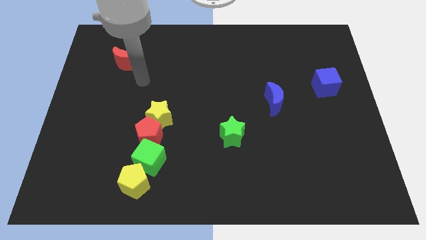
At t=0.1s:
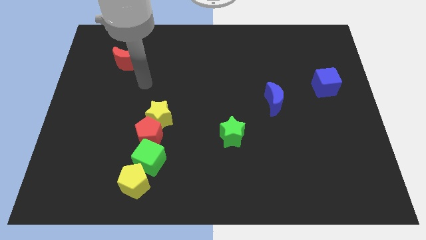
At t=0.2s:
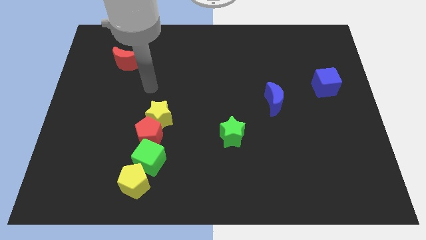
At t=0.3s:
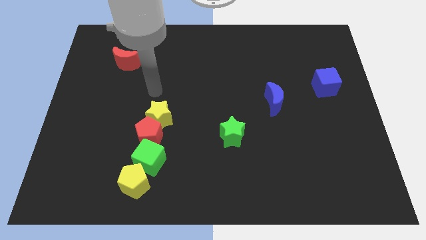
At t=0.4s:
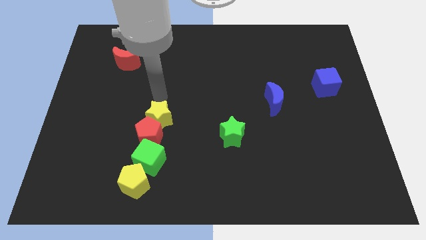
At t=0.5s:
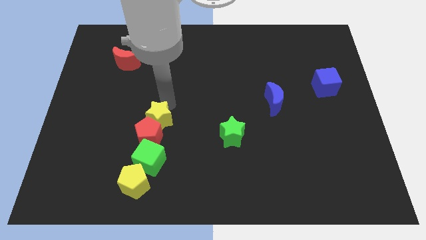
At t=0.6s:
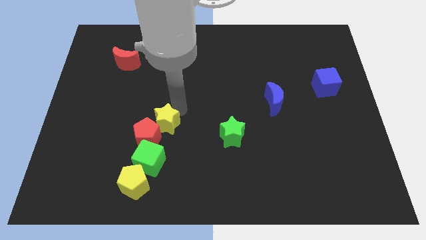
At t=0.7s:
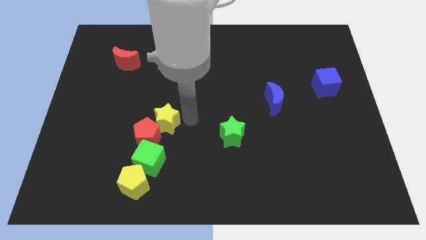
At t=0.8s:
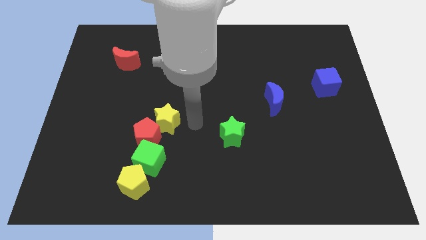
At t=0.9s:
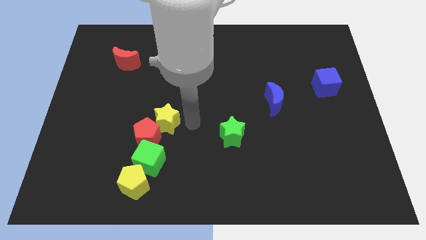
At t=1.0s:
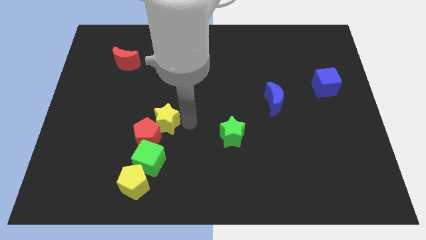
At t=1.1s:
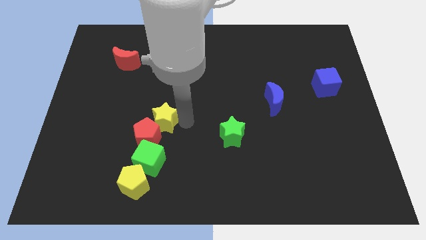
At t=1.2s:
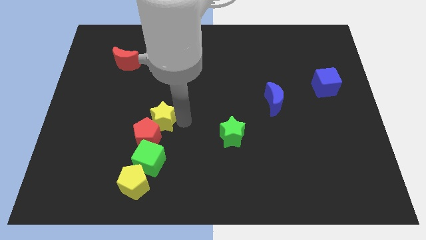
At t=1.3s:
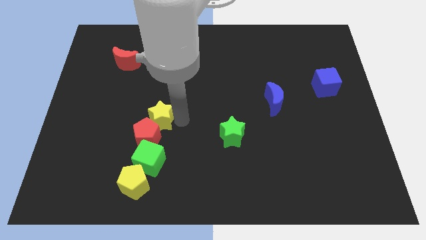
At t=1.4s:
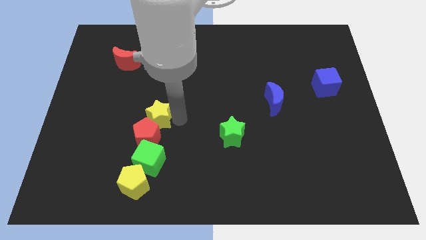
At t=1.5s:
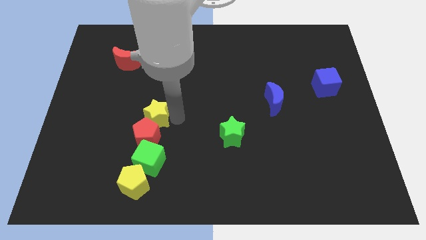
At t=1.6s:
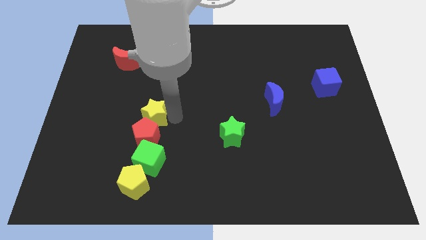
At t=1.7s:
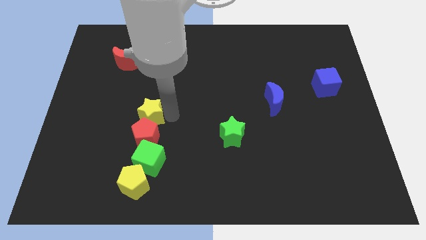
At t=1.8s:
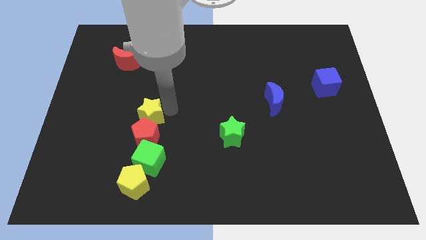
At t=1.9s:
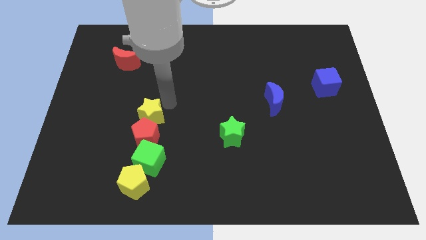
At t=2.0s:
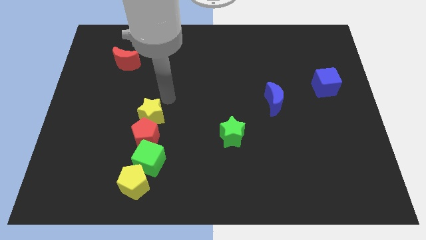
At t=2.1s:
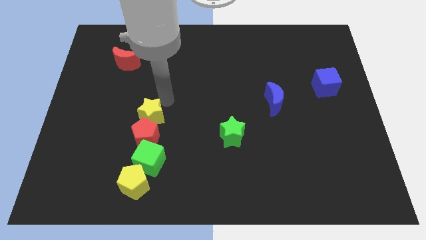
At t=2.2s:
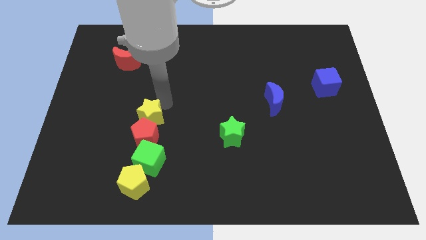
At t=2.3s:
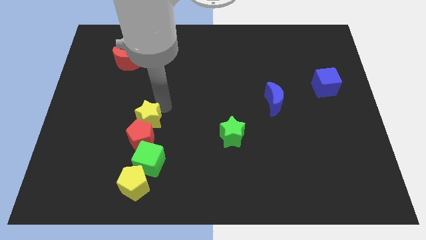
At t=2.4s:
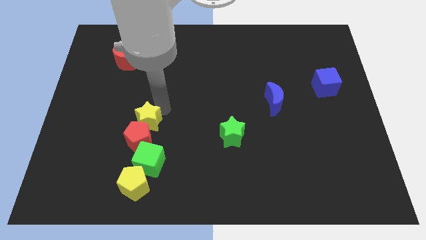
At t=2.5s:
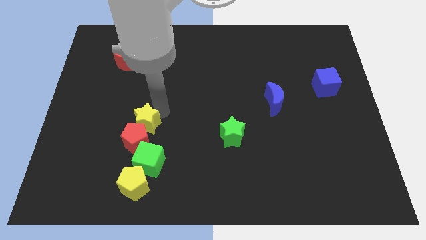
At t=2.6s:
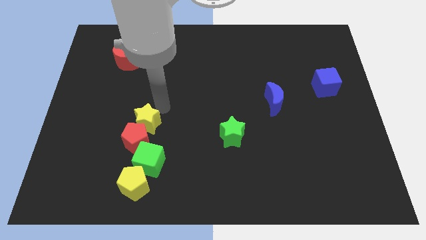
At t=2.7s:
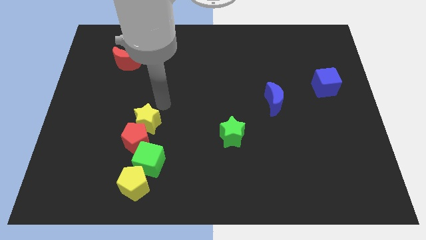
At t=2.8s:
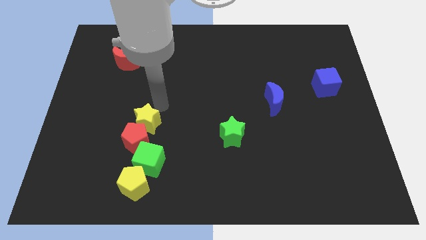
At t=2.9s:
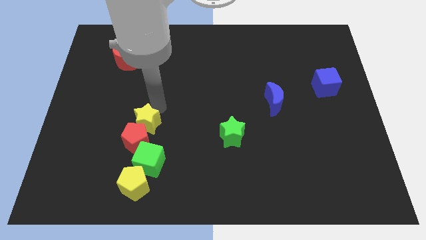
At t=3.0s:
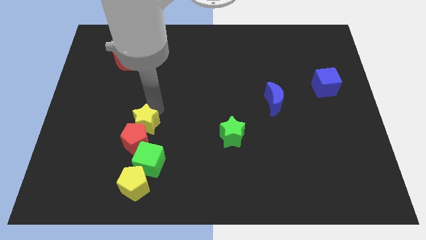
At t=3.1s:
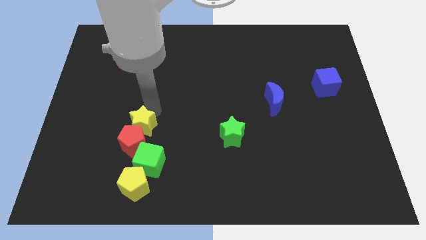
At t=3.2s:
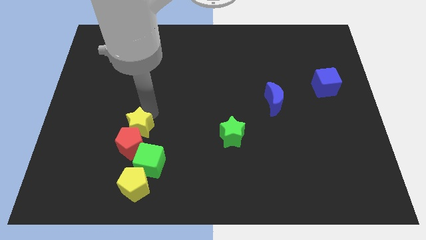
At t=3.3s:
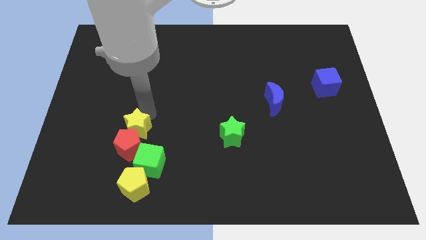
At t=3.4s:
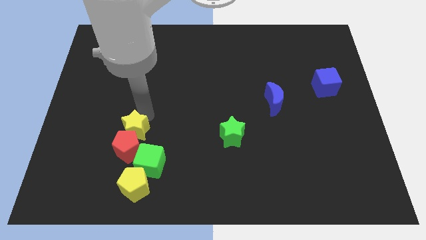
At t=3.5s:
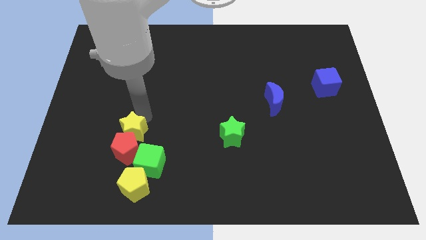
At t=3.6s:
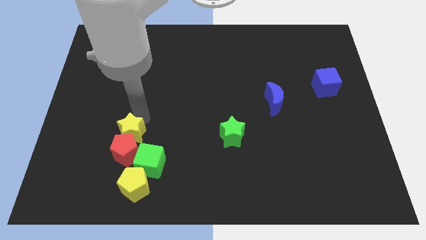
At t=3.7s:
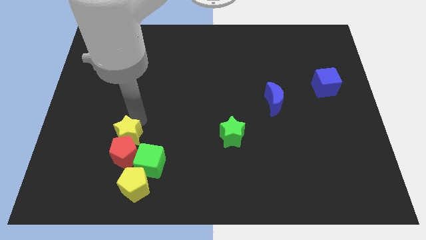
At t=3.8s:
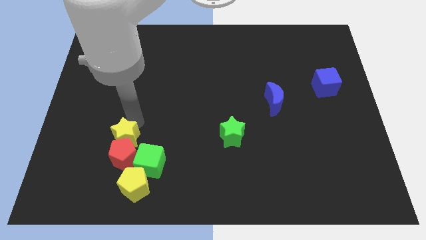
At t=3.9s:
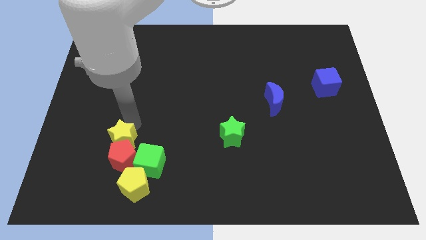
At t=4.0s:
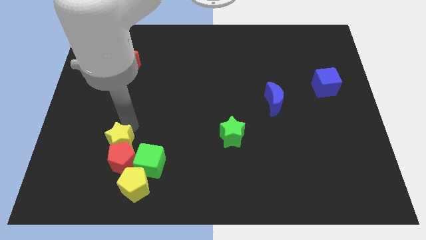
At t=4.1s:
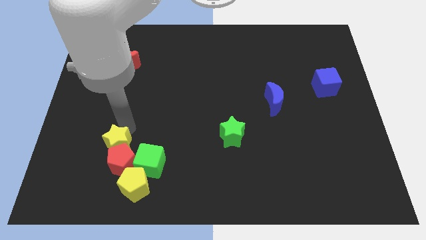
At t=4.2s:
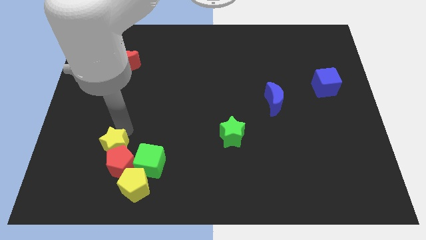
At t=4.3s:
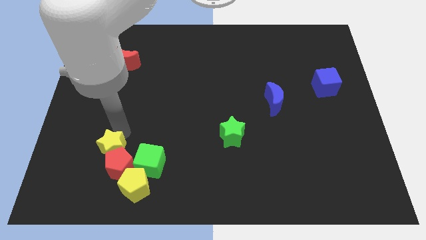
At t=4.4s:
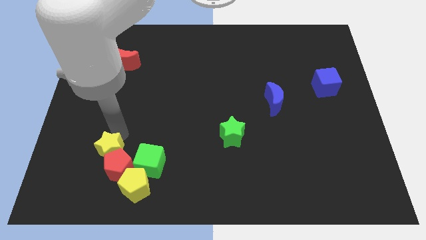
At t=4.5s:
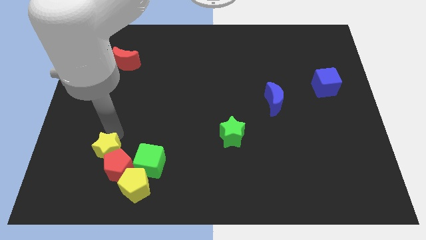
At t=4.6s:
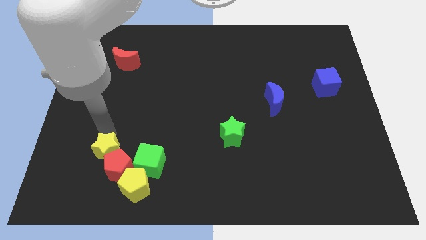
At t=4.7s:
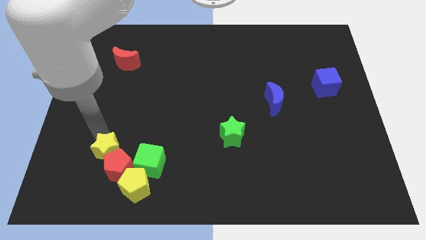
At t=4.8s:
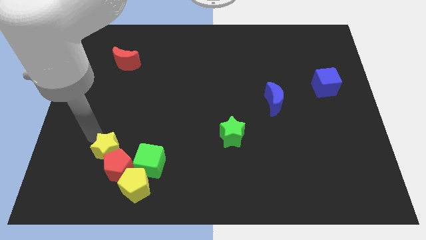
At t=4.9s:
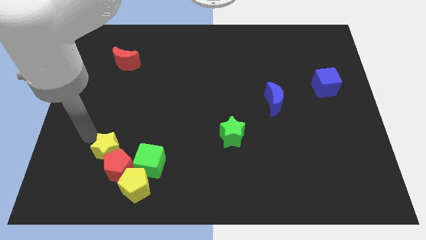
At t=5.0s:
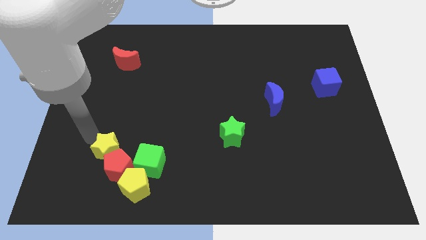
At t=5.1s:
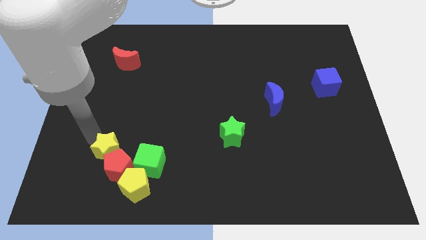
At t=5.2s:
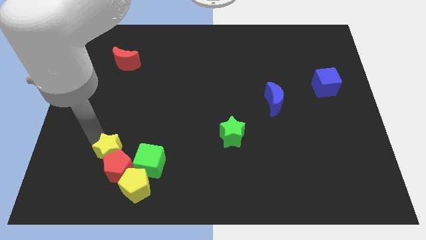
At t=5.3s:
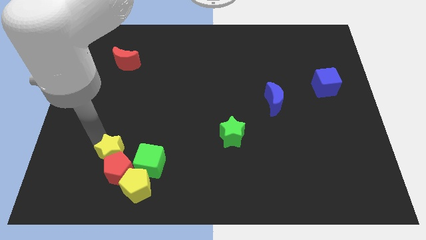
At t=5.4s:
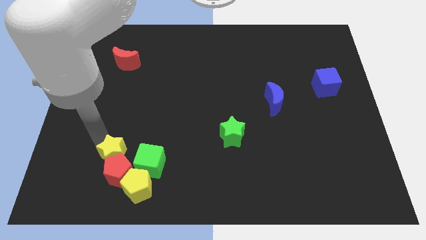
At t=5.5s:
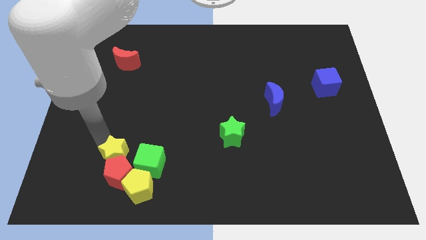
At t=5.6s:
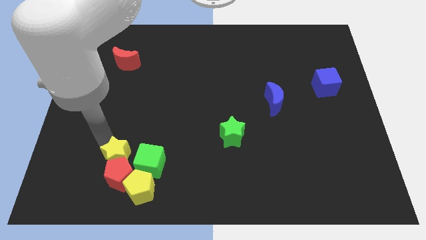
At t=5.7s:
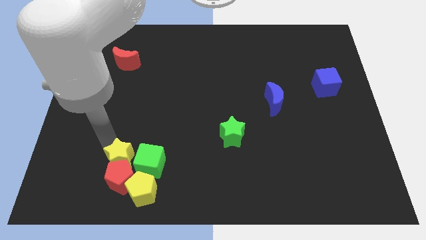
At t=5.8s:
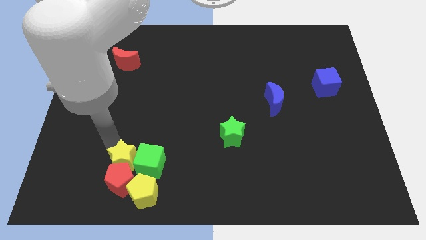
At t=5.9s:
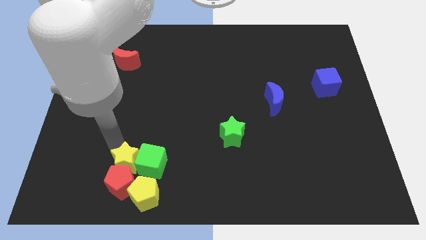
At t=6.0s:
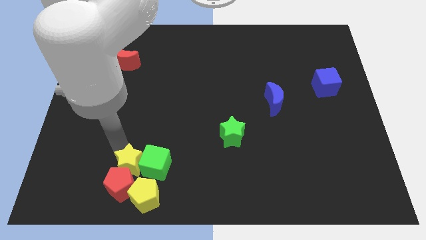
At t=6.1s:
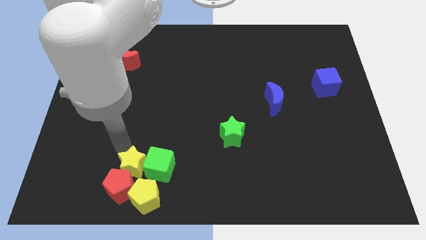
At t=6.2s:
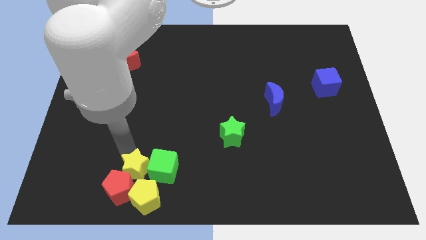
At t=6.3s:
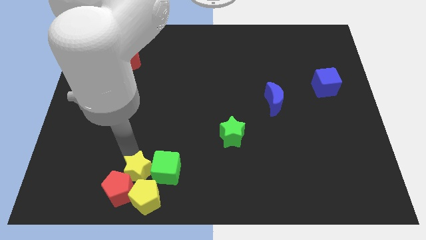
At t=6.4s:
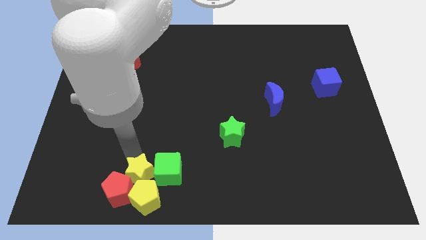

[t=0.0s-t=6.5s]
slide the yellow star to the yellow pentagon
